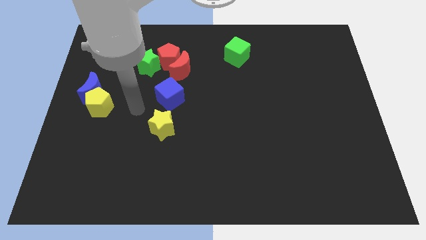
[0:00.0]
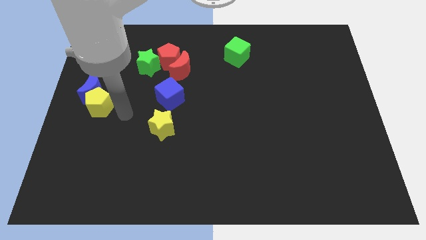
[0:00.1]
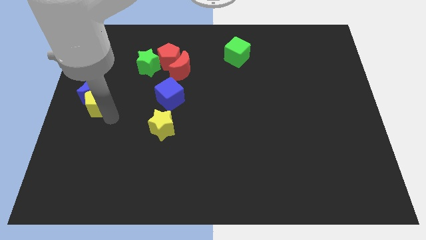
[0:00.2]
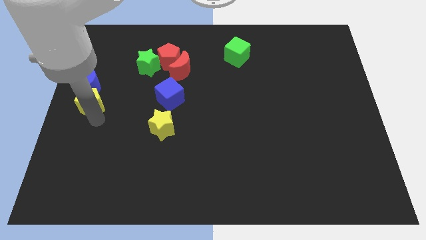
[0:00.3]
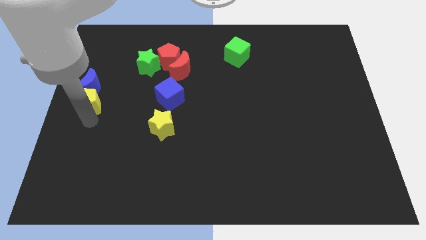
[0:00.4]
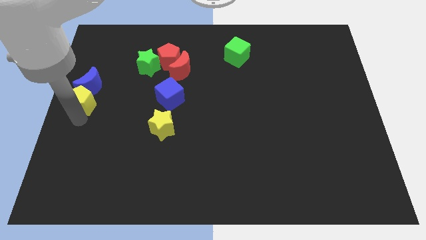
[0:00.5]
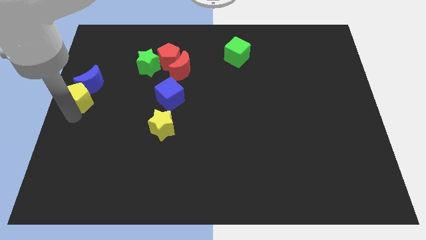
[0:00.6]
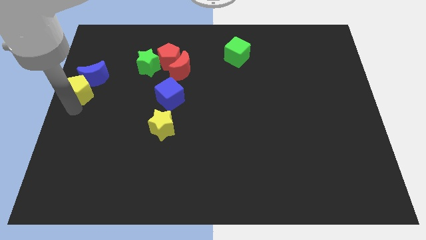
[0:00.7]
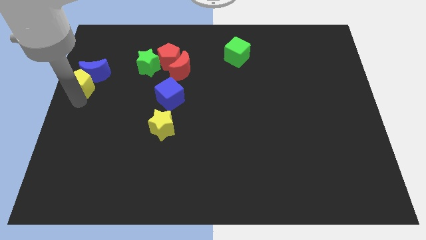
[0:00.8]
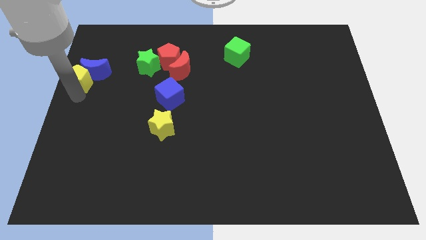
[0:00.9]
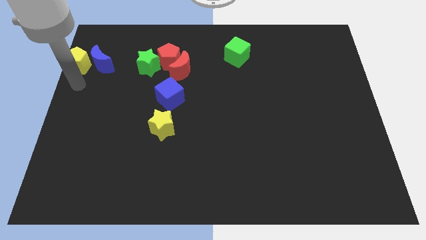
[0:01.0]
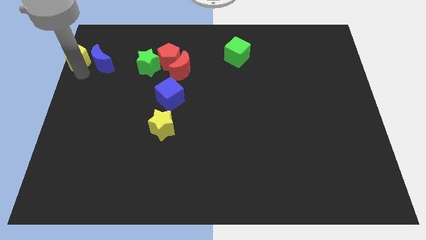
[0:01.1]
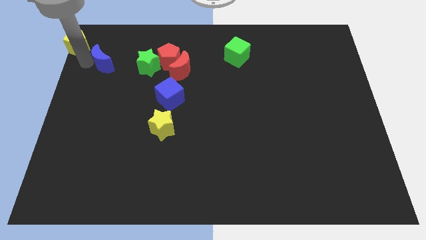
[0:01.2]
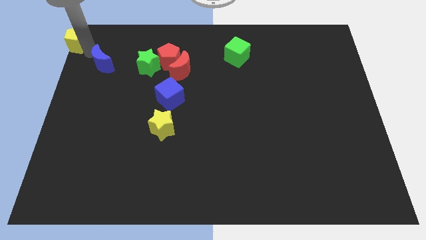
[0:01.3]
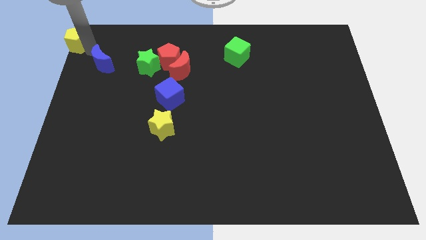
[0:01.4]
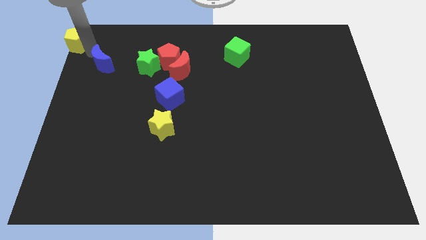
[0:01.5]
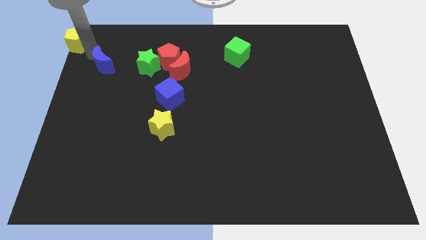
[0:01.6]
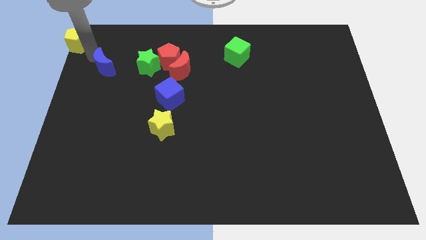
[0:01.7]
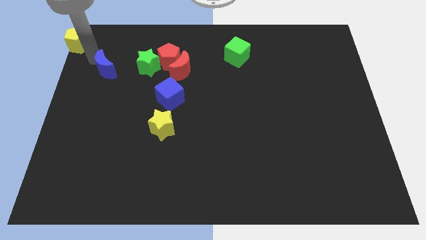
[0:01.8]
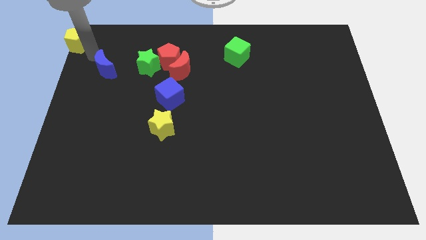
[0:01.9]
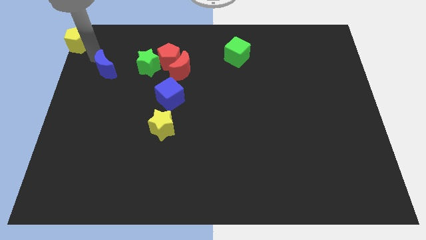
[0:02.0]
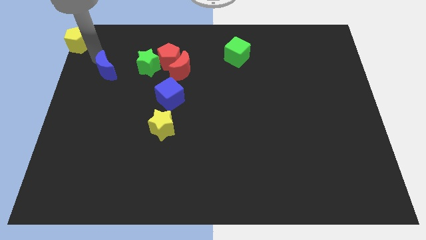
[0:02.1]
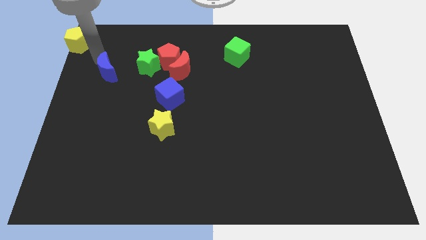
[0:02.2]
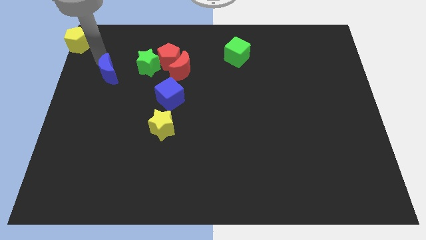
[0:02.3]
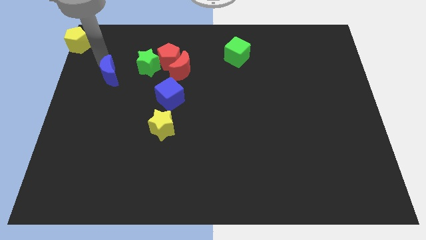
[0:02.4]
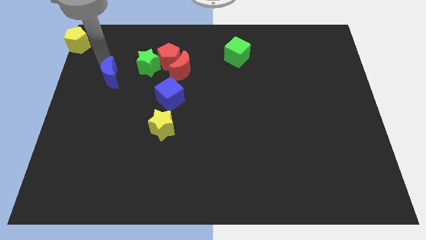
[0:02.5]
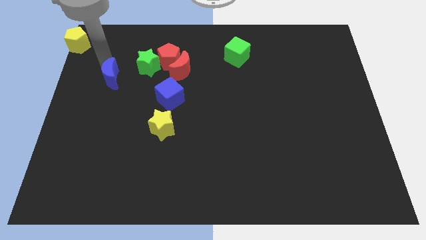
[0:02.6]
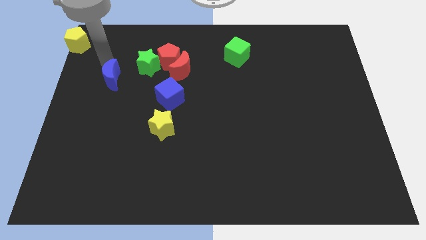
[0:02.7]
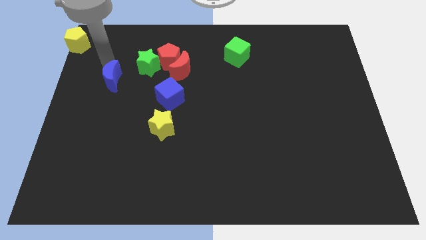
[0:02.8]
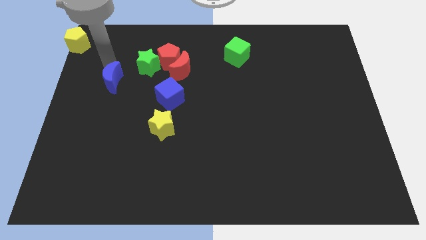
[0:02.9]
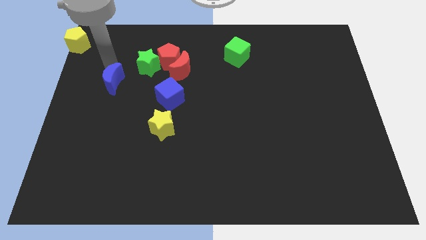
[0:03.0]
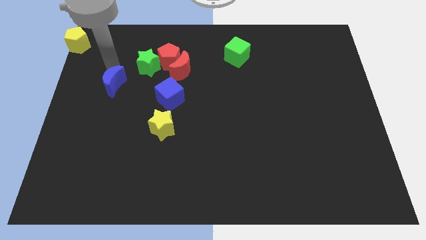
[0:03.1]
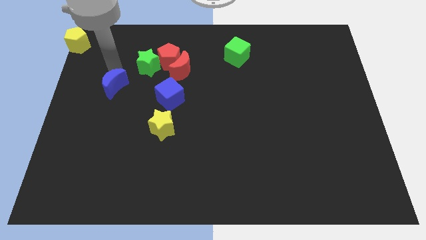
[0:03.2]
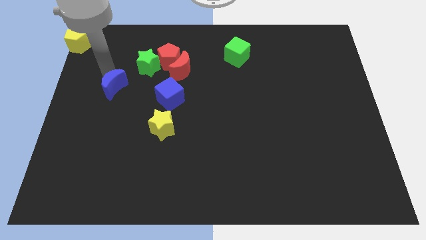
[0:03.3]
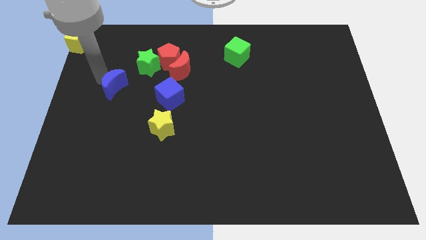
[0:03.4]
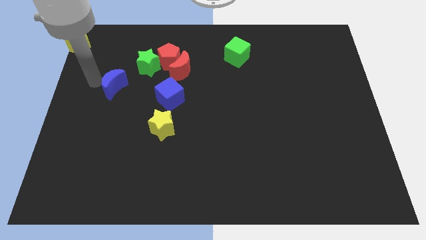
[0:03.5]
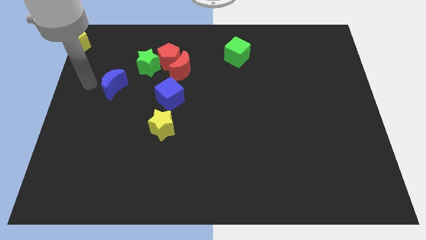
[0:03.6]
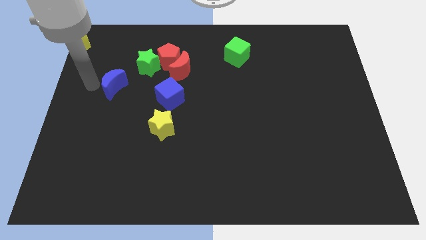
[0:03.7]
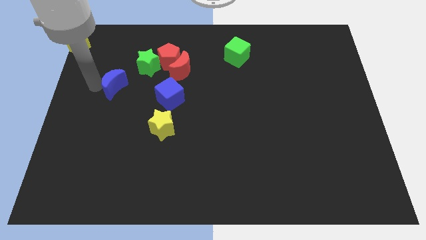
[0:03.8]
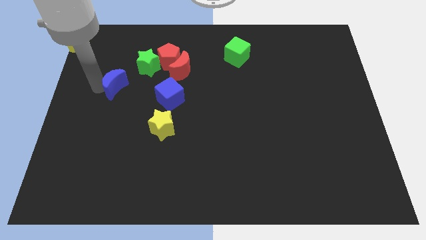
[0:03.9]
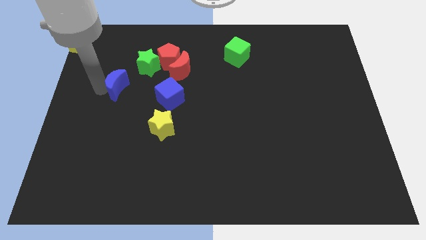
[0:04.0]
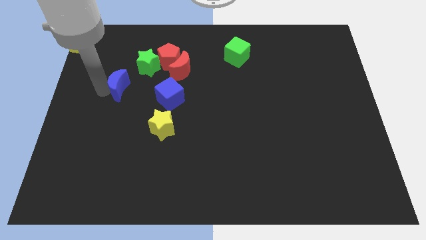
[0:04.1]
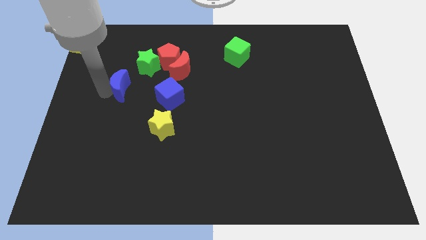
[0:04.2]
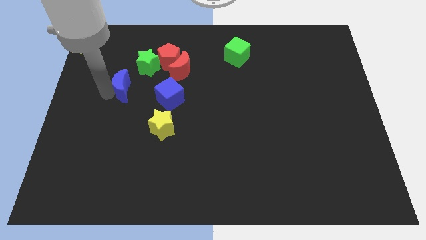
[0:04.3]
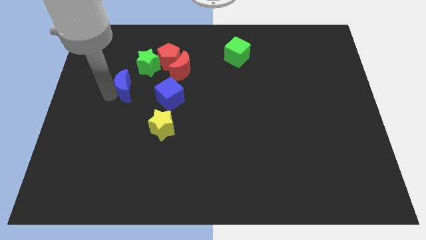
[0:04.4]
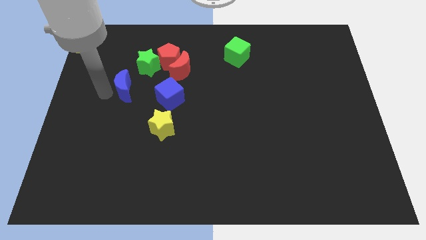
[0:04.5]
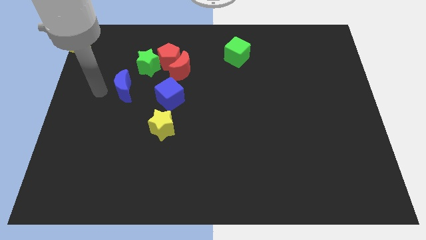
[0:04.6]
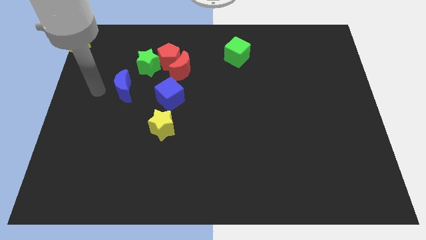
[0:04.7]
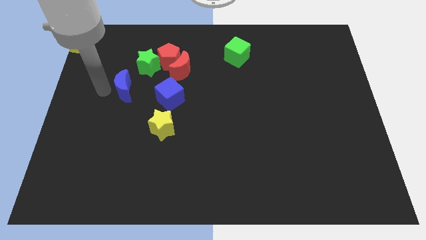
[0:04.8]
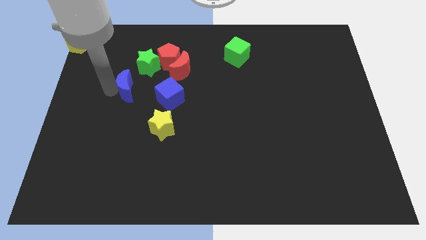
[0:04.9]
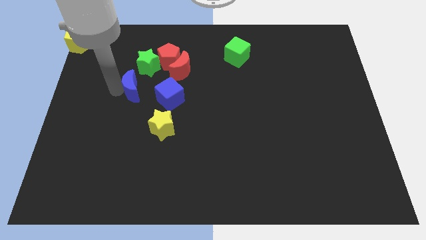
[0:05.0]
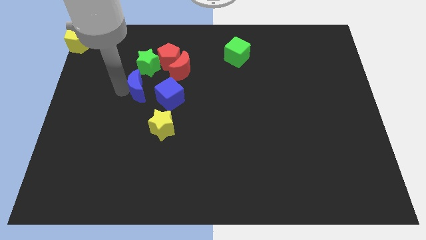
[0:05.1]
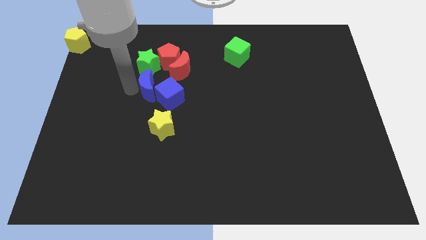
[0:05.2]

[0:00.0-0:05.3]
push the blue moon next to the blue cube

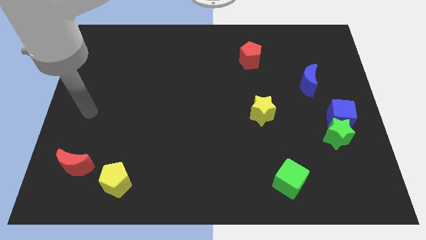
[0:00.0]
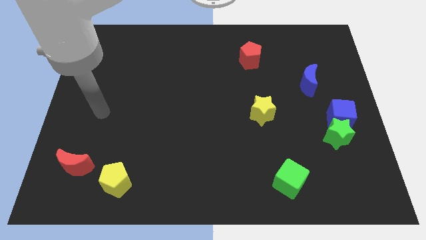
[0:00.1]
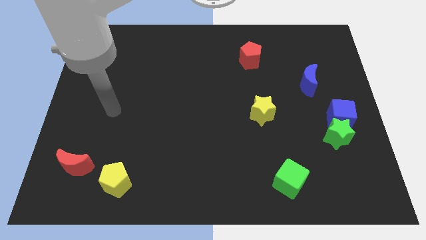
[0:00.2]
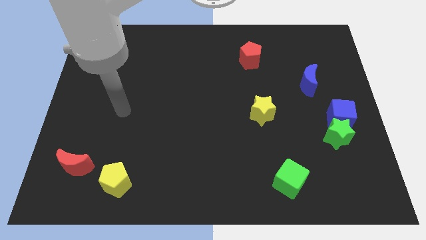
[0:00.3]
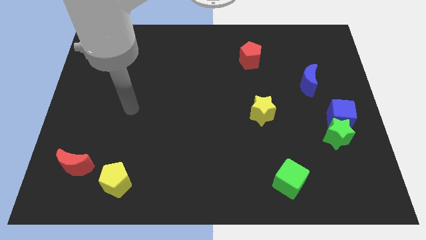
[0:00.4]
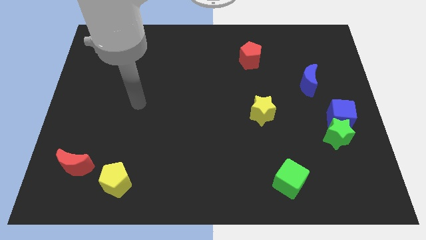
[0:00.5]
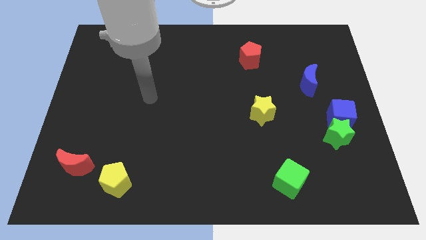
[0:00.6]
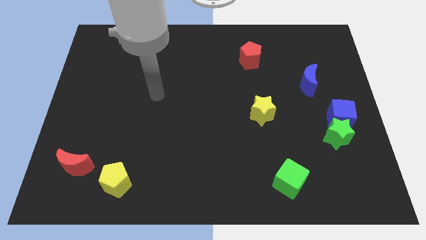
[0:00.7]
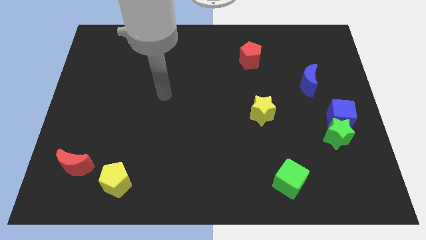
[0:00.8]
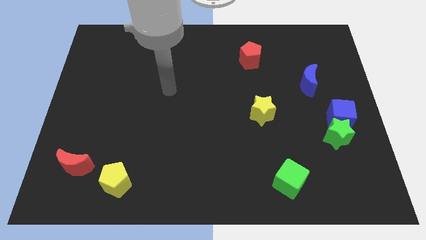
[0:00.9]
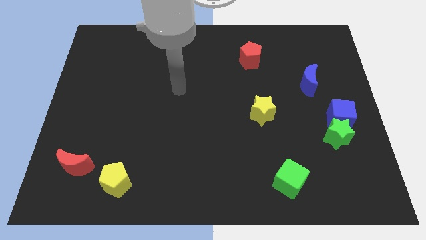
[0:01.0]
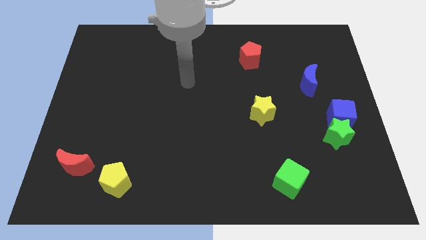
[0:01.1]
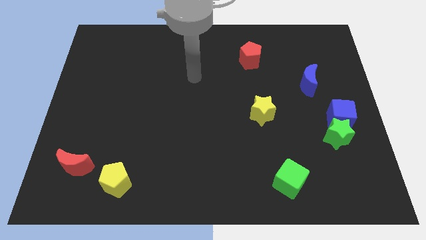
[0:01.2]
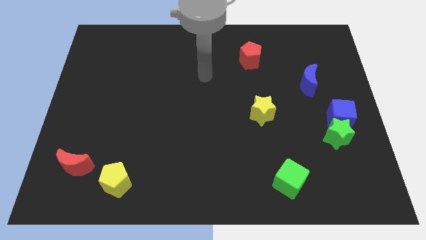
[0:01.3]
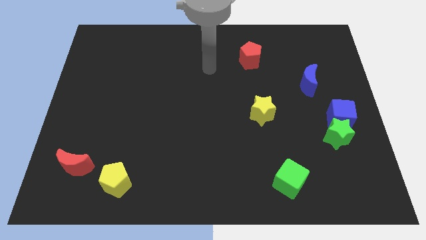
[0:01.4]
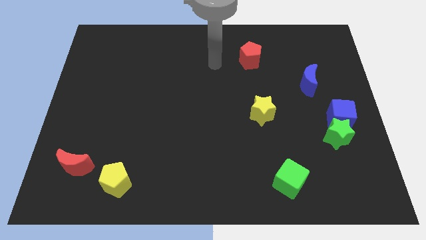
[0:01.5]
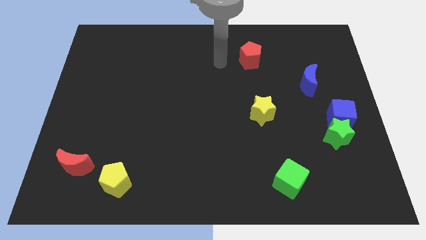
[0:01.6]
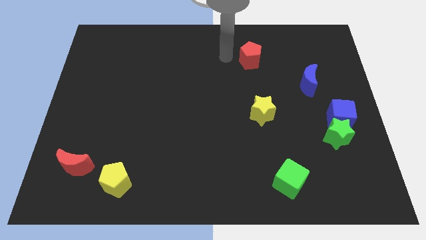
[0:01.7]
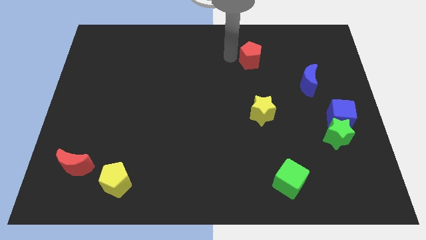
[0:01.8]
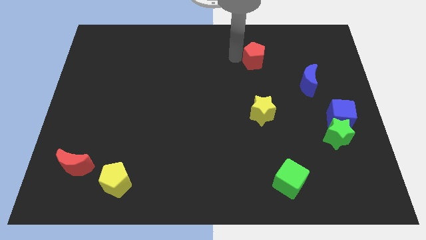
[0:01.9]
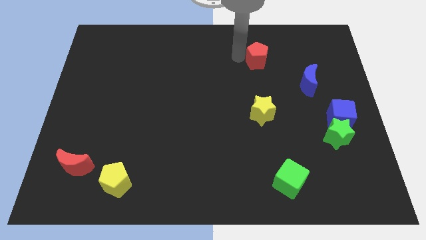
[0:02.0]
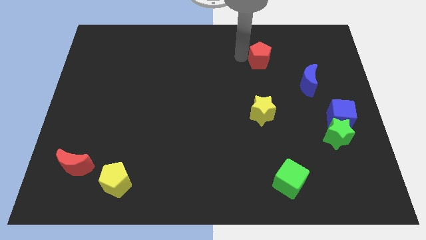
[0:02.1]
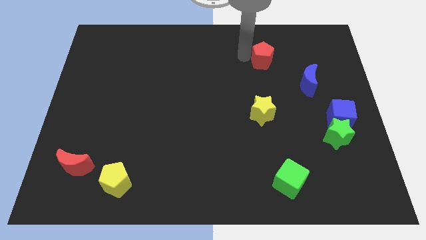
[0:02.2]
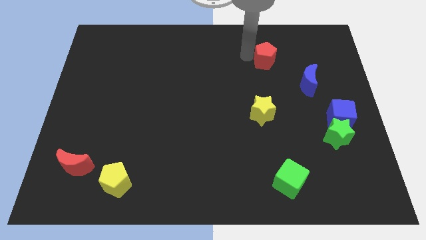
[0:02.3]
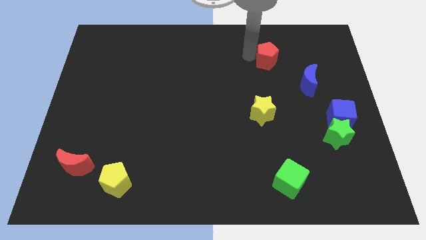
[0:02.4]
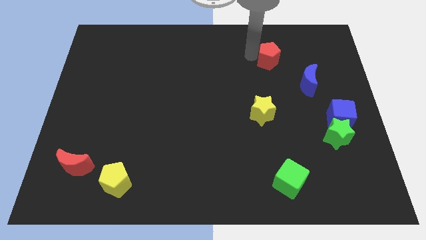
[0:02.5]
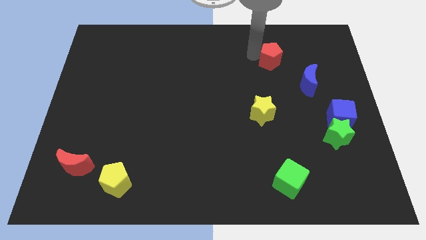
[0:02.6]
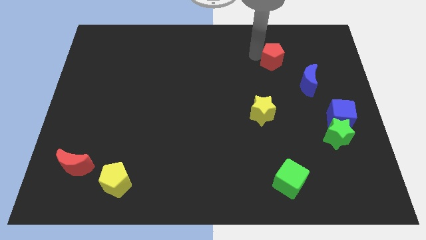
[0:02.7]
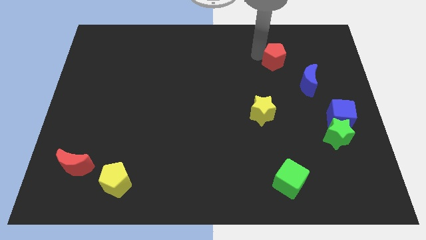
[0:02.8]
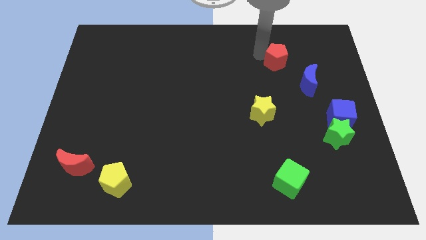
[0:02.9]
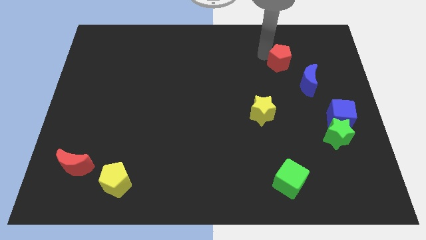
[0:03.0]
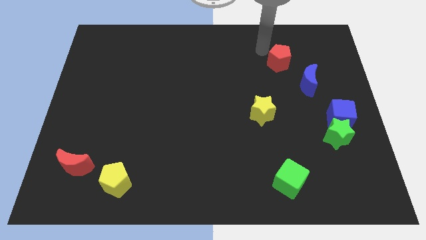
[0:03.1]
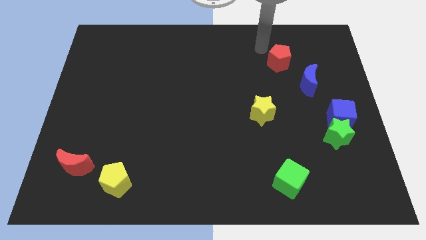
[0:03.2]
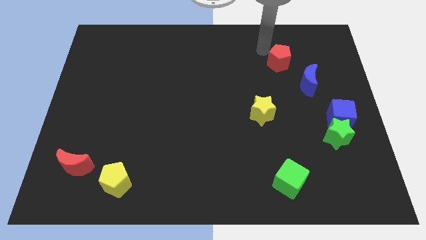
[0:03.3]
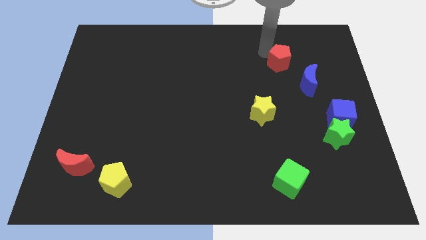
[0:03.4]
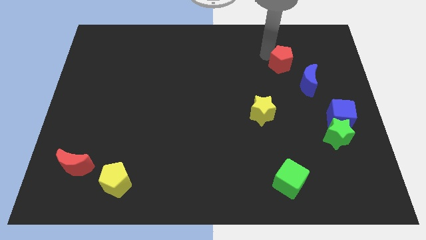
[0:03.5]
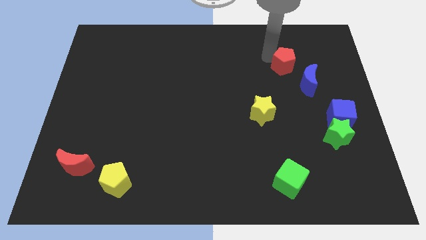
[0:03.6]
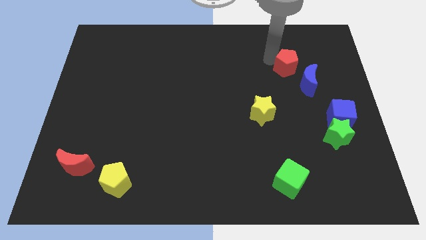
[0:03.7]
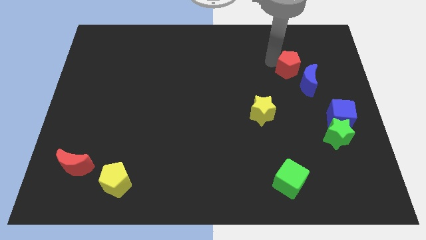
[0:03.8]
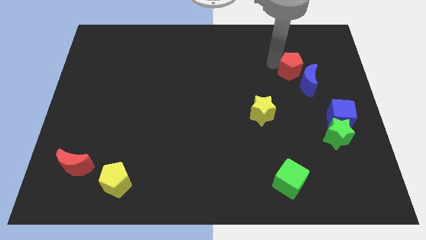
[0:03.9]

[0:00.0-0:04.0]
put the red pentagon towards the blue moon
